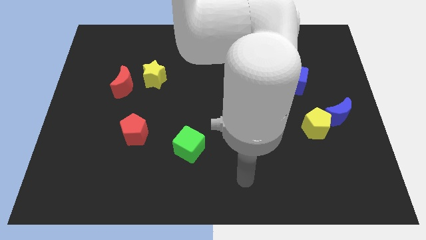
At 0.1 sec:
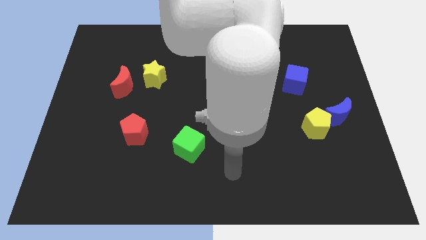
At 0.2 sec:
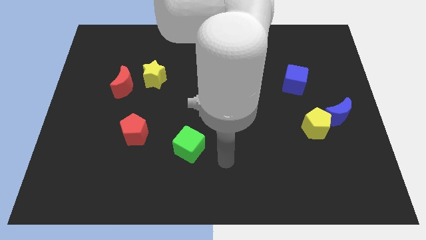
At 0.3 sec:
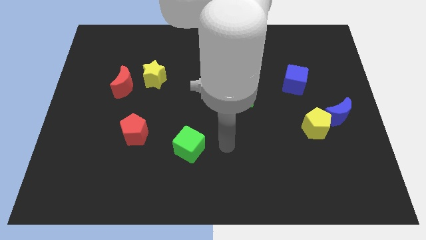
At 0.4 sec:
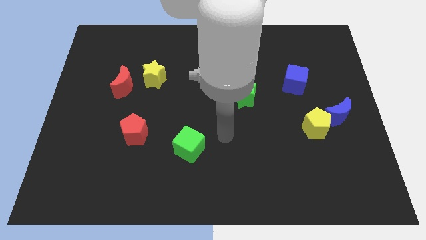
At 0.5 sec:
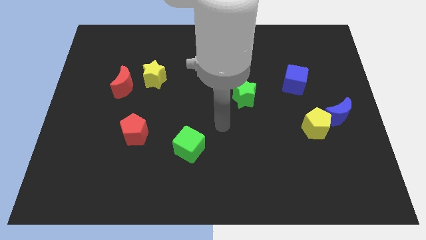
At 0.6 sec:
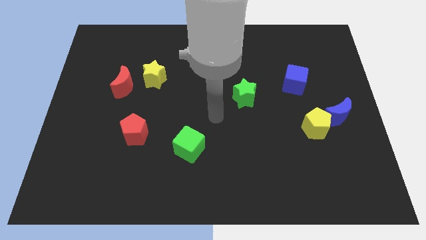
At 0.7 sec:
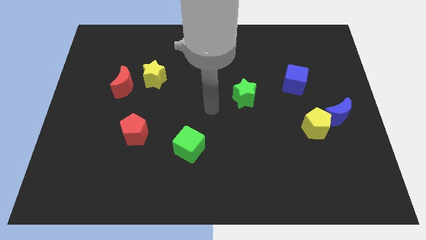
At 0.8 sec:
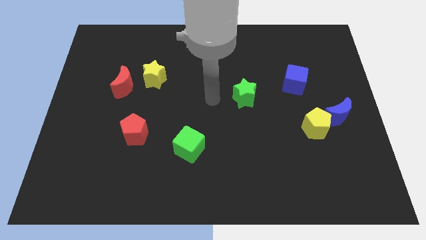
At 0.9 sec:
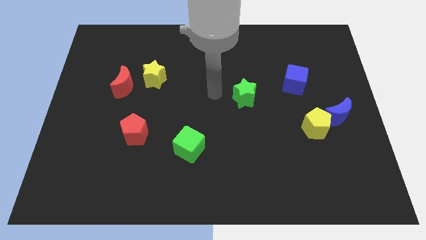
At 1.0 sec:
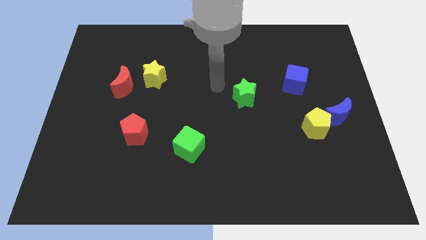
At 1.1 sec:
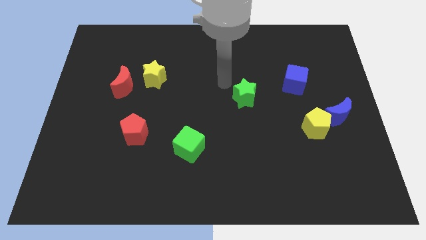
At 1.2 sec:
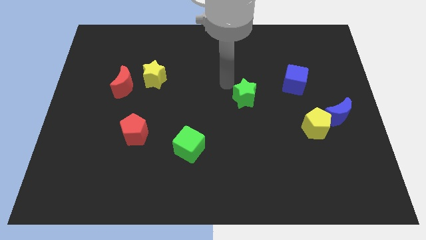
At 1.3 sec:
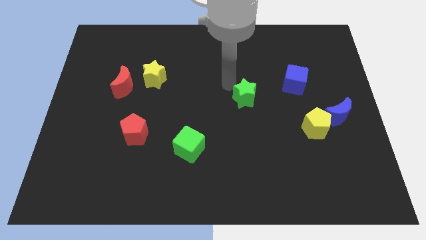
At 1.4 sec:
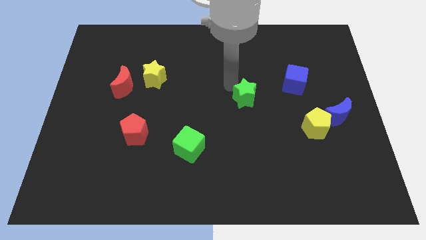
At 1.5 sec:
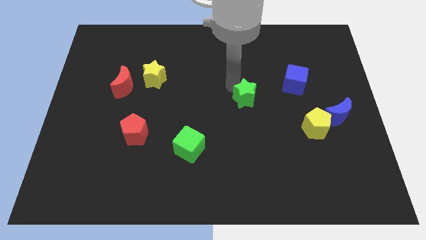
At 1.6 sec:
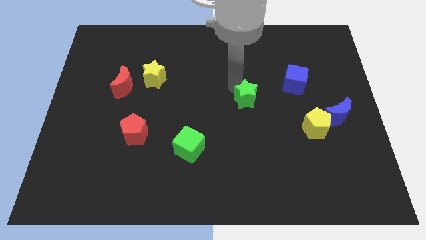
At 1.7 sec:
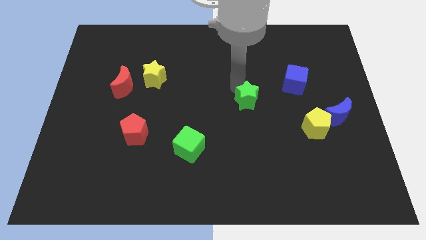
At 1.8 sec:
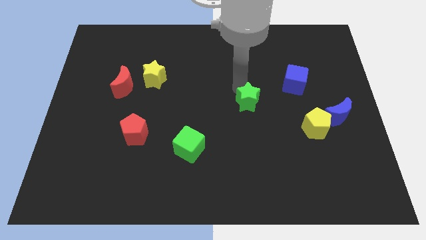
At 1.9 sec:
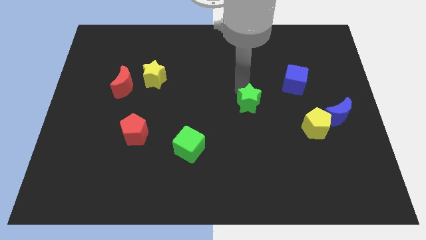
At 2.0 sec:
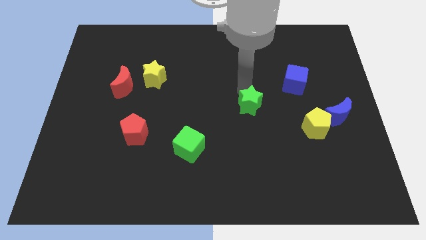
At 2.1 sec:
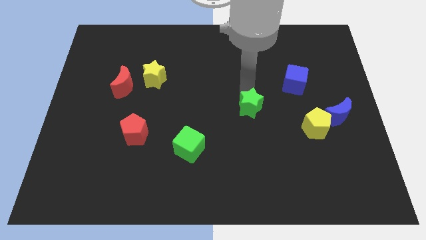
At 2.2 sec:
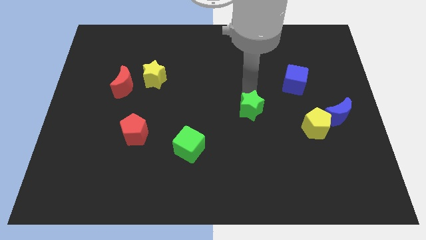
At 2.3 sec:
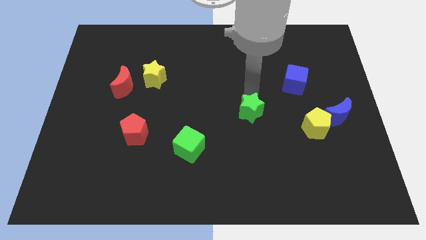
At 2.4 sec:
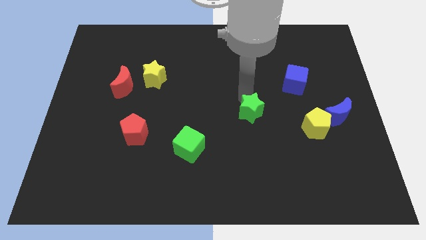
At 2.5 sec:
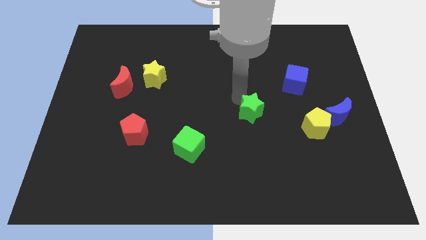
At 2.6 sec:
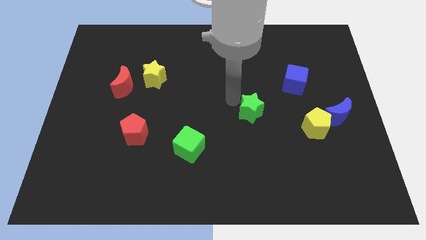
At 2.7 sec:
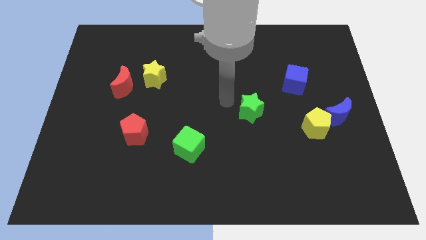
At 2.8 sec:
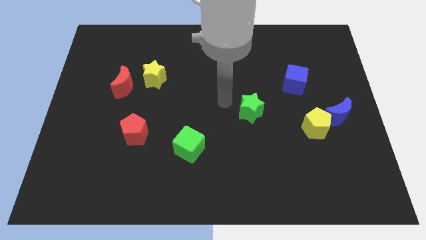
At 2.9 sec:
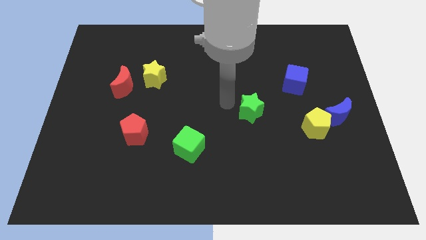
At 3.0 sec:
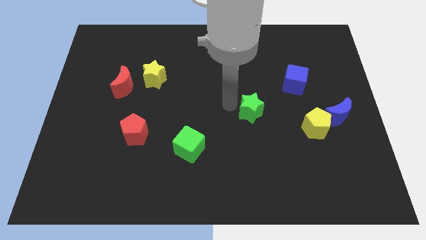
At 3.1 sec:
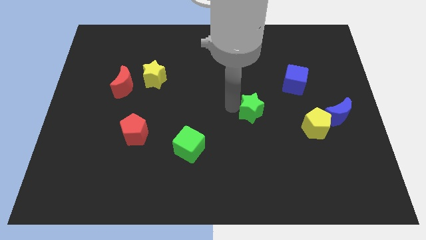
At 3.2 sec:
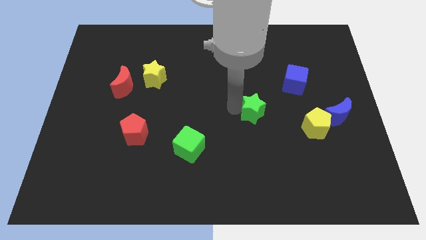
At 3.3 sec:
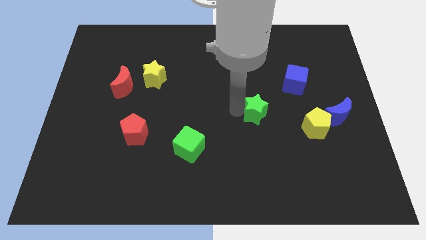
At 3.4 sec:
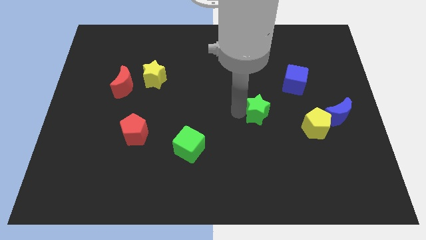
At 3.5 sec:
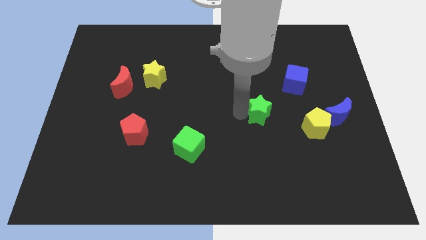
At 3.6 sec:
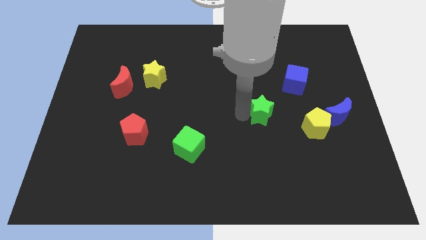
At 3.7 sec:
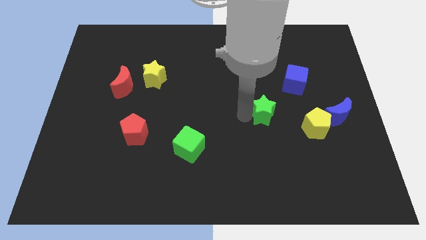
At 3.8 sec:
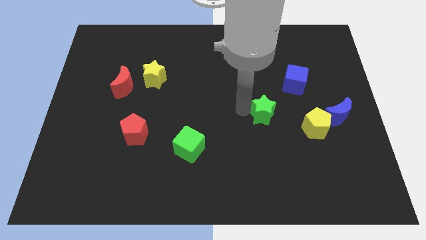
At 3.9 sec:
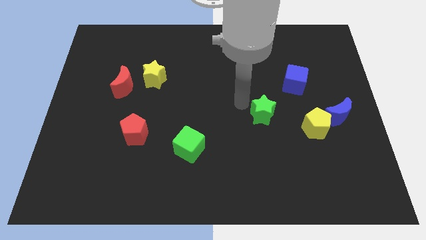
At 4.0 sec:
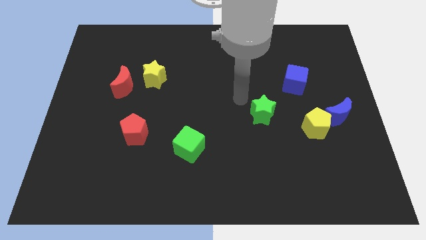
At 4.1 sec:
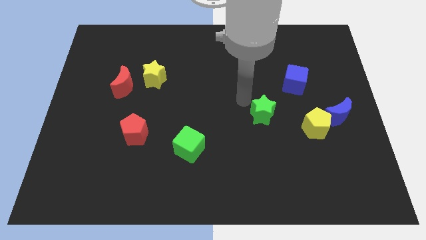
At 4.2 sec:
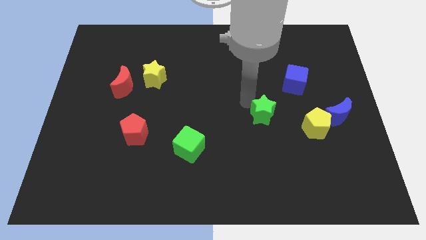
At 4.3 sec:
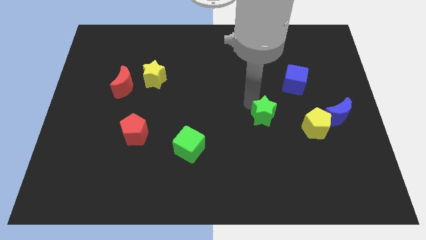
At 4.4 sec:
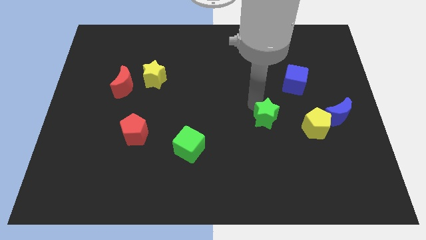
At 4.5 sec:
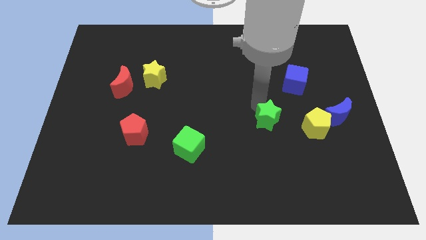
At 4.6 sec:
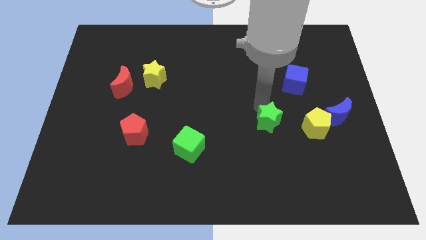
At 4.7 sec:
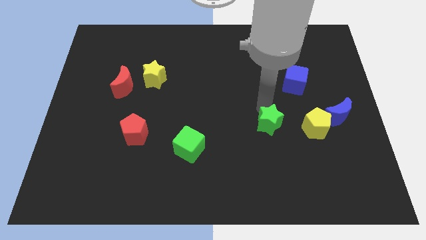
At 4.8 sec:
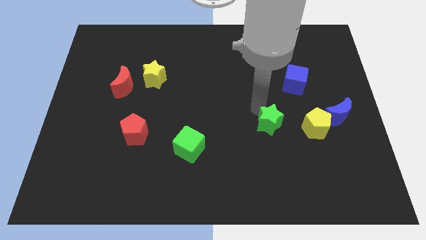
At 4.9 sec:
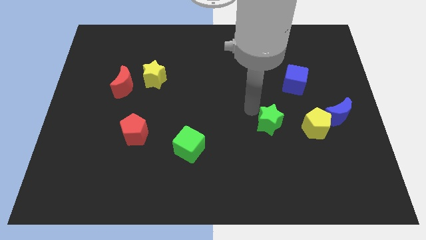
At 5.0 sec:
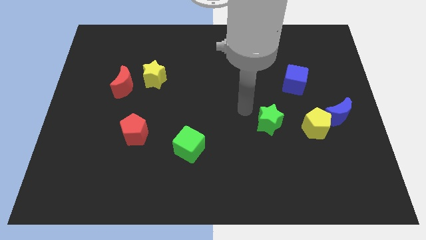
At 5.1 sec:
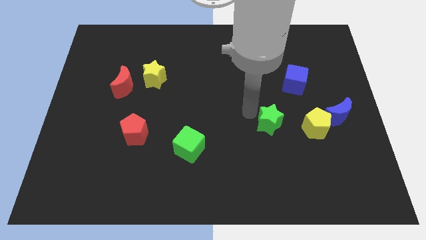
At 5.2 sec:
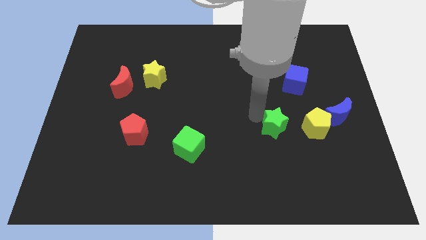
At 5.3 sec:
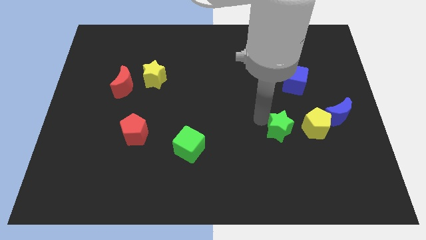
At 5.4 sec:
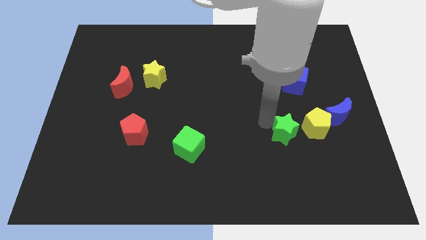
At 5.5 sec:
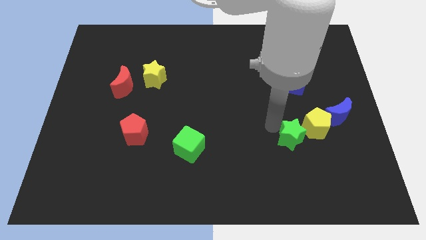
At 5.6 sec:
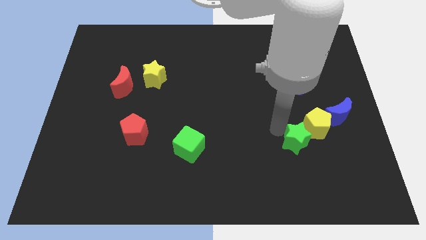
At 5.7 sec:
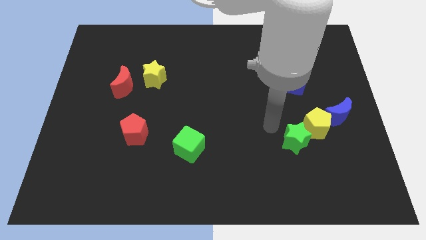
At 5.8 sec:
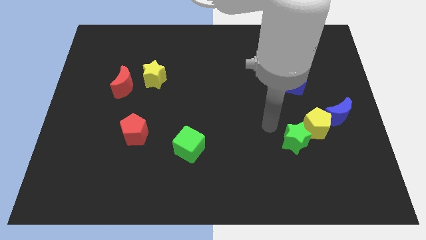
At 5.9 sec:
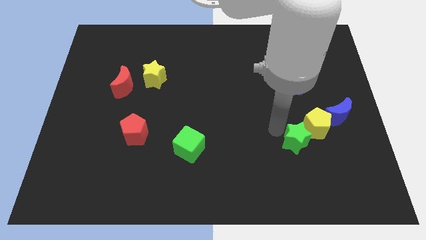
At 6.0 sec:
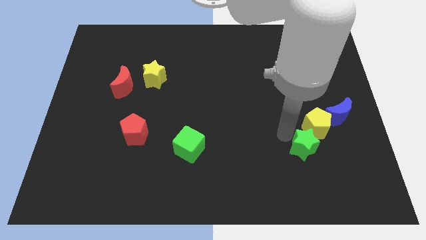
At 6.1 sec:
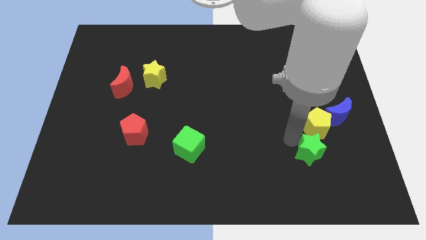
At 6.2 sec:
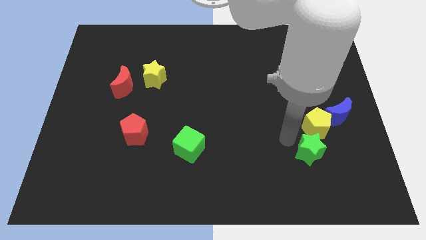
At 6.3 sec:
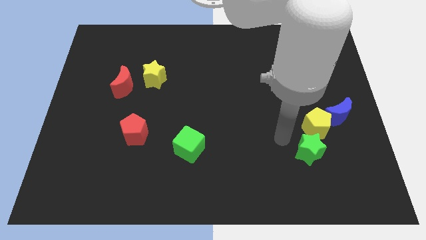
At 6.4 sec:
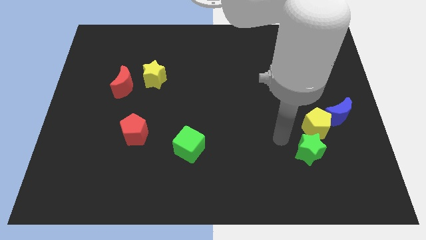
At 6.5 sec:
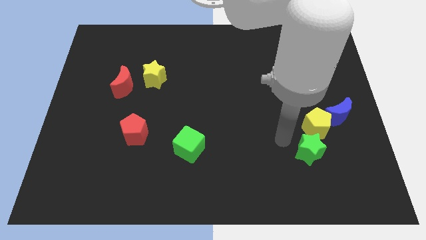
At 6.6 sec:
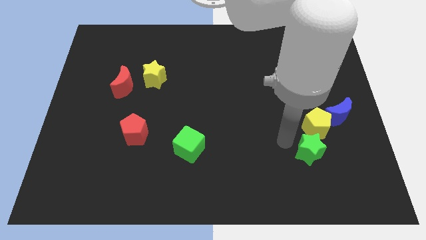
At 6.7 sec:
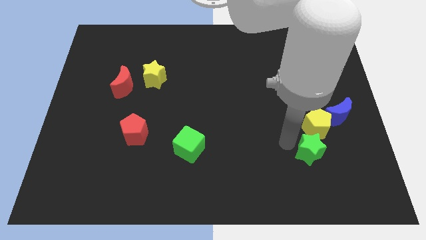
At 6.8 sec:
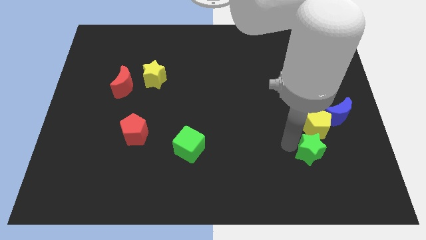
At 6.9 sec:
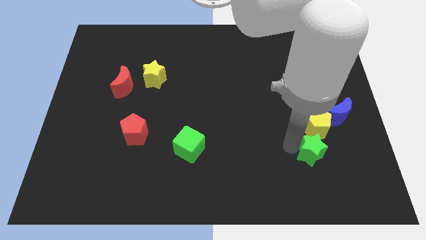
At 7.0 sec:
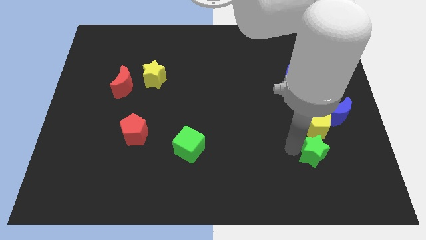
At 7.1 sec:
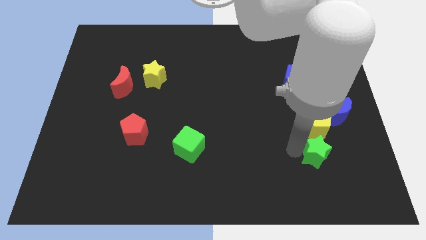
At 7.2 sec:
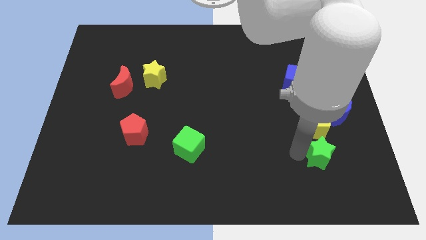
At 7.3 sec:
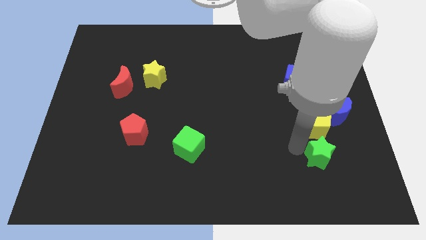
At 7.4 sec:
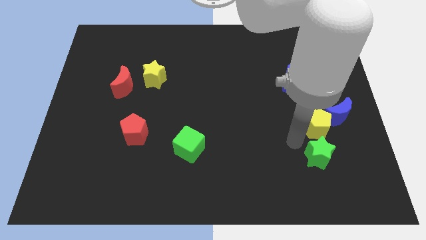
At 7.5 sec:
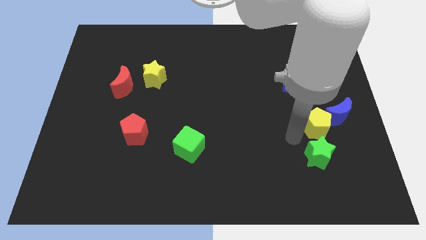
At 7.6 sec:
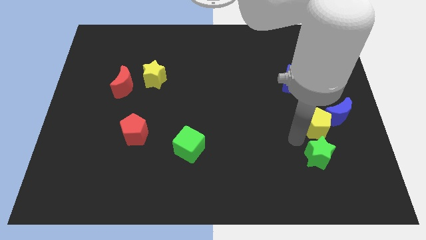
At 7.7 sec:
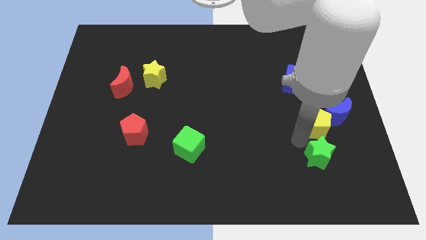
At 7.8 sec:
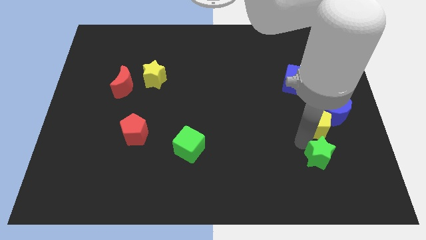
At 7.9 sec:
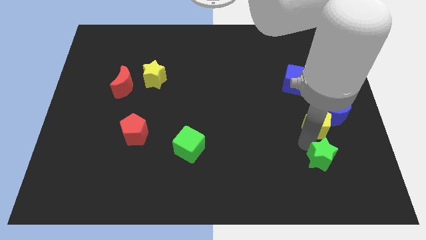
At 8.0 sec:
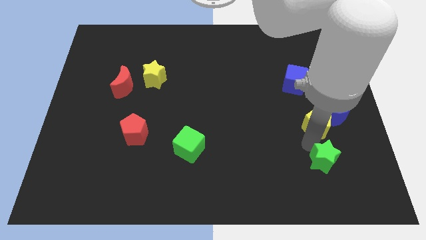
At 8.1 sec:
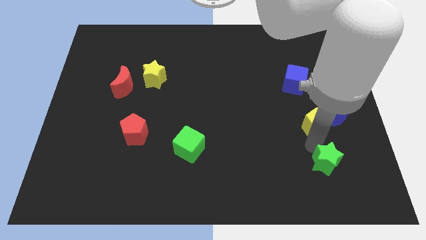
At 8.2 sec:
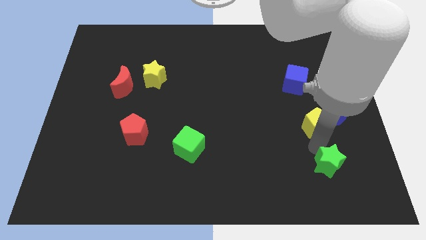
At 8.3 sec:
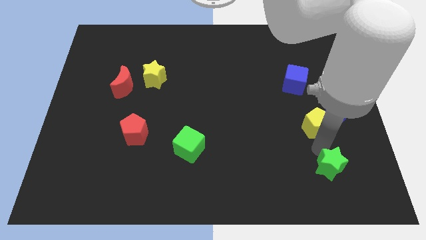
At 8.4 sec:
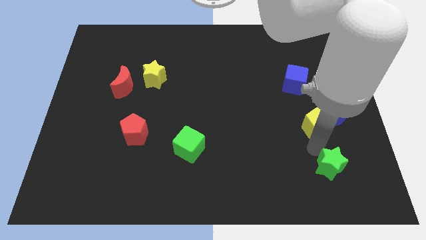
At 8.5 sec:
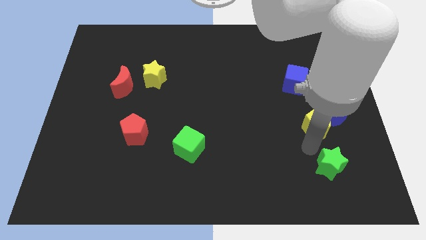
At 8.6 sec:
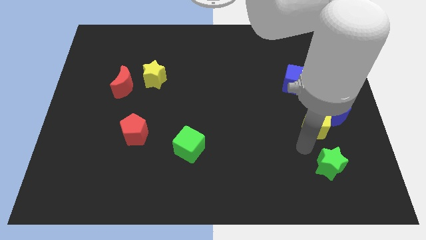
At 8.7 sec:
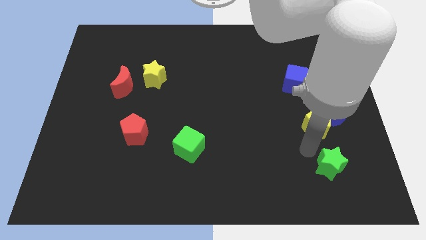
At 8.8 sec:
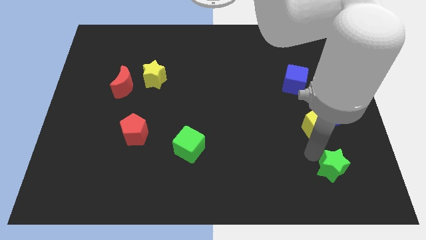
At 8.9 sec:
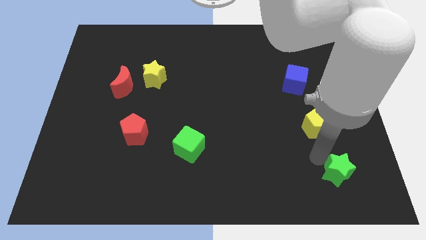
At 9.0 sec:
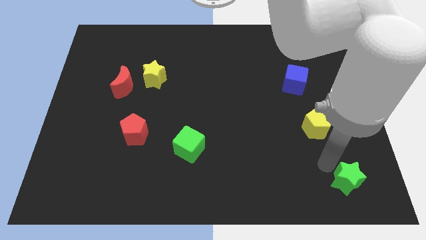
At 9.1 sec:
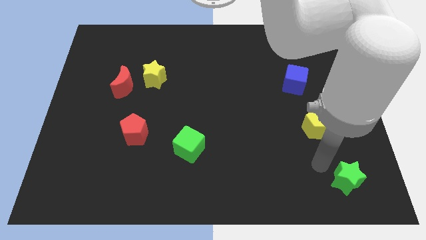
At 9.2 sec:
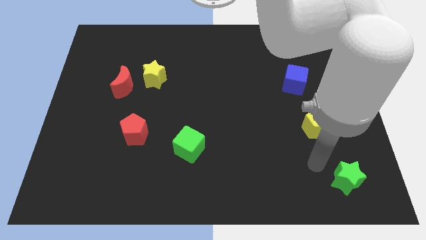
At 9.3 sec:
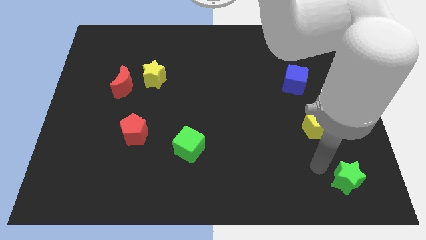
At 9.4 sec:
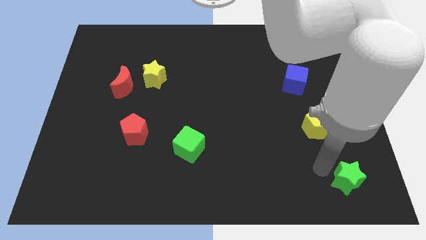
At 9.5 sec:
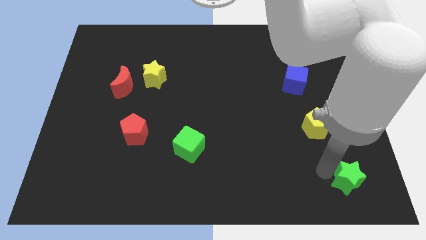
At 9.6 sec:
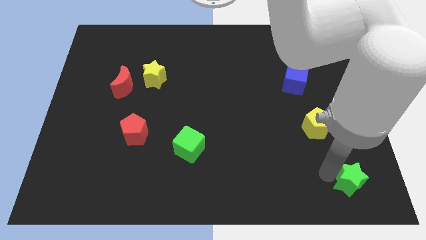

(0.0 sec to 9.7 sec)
slide the green star to the bottom right of the board
